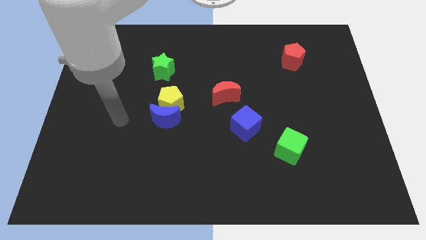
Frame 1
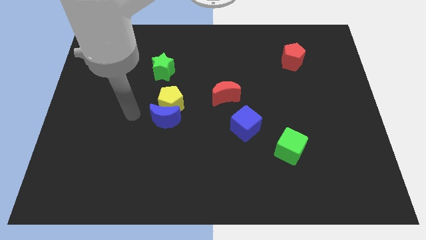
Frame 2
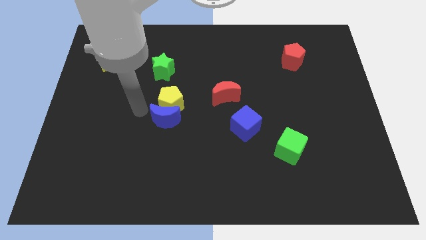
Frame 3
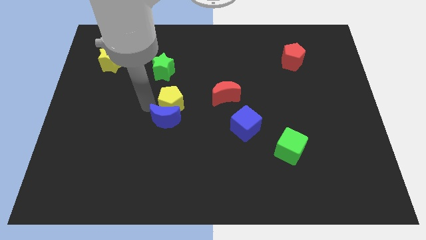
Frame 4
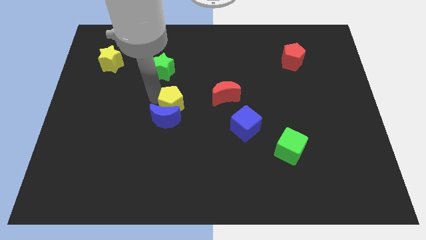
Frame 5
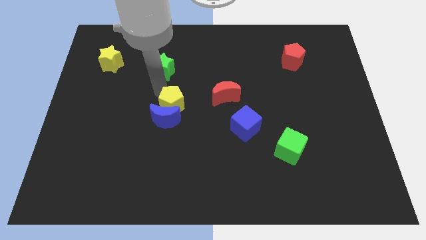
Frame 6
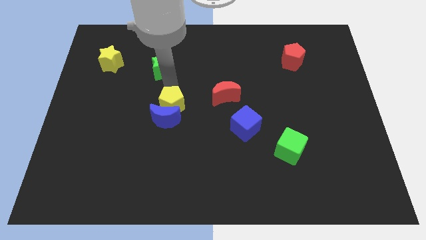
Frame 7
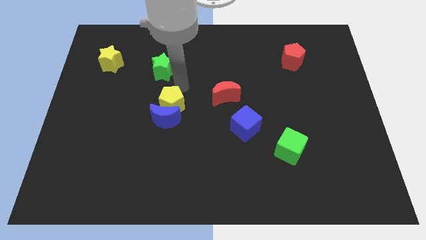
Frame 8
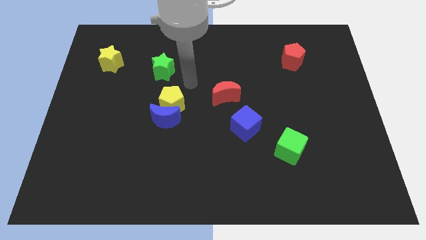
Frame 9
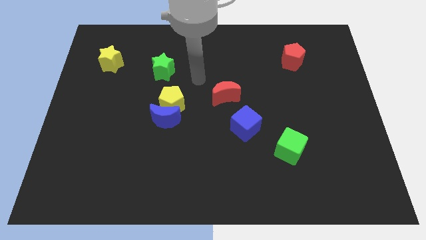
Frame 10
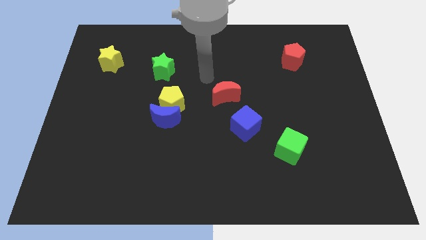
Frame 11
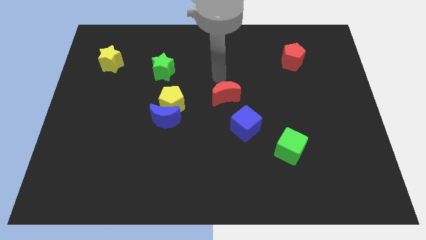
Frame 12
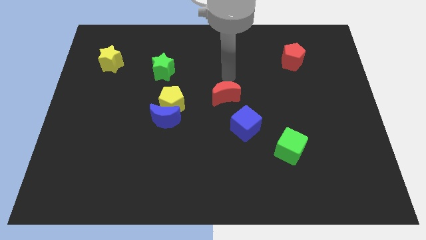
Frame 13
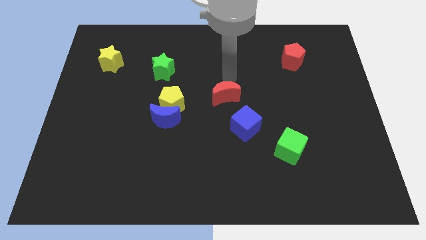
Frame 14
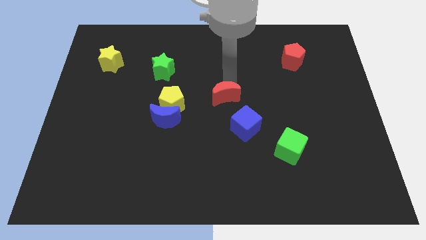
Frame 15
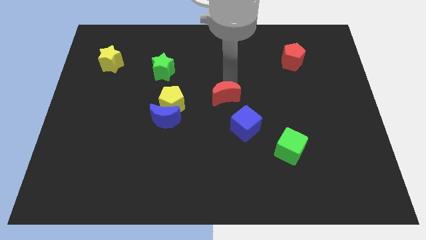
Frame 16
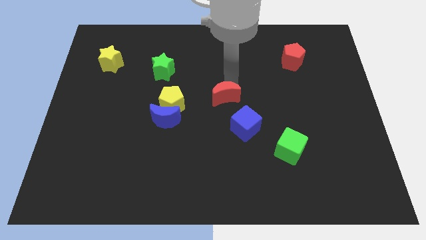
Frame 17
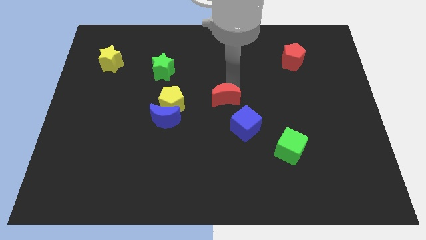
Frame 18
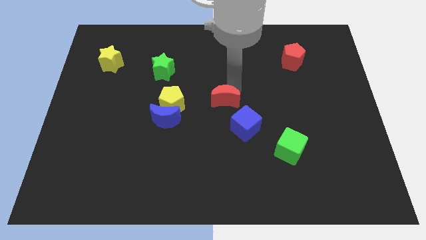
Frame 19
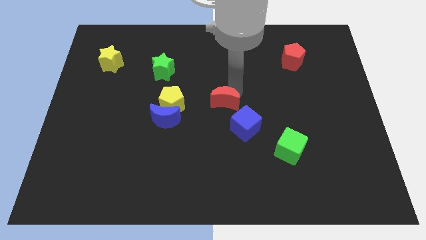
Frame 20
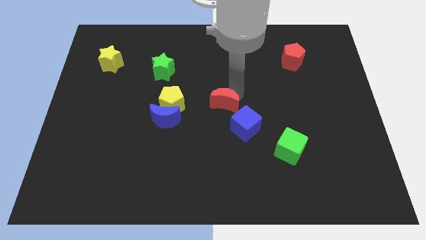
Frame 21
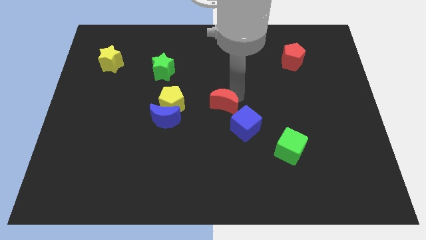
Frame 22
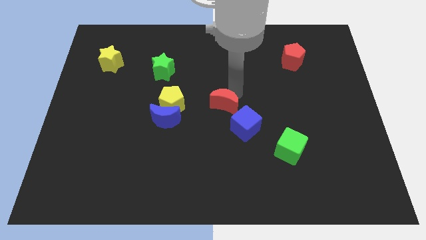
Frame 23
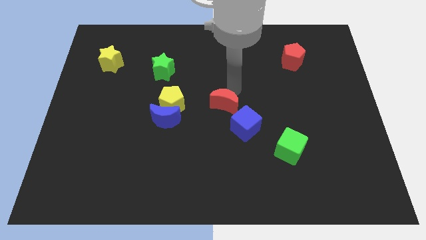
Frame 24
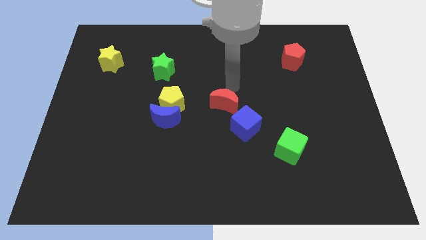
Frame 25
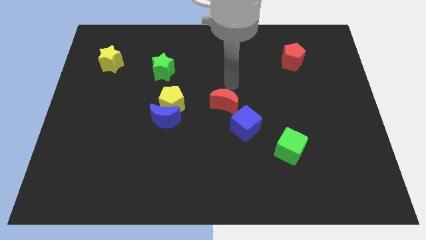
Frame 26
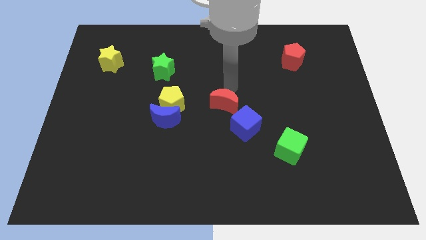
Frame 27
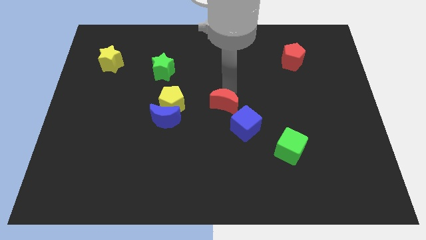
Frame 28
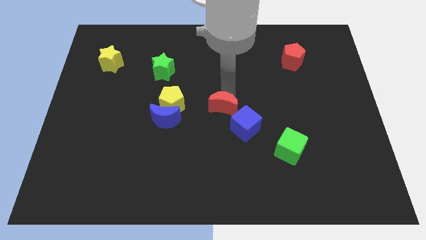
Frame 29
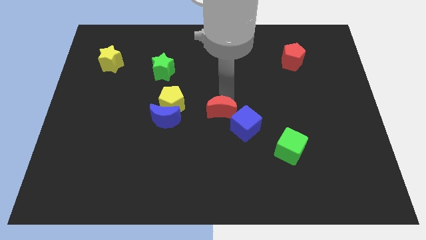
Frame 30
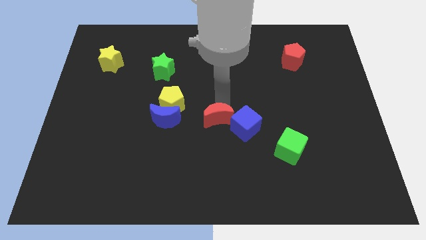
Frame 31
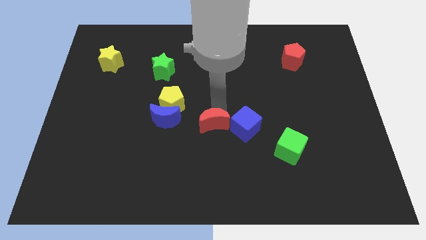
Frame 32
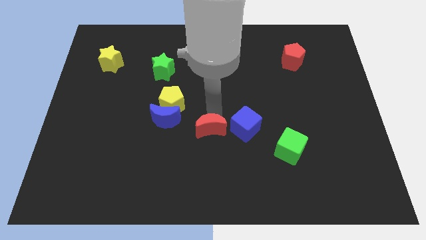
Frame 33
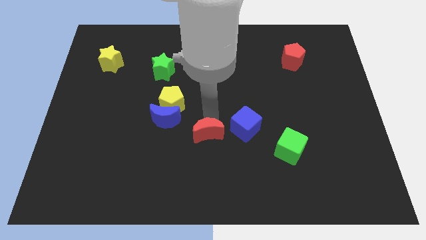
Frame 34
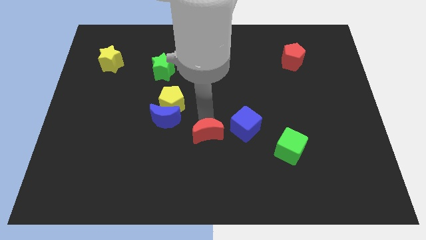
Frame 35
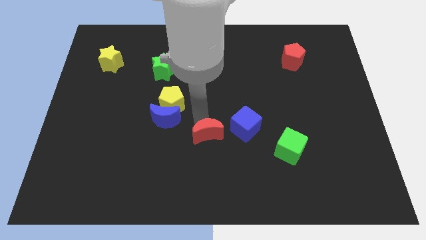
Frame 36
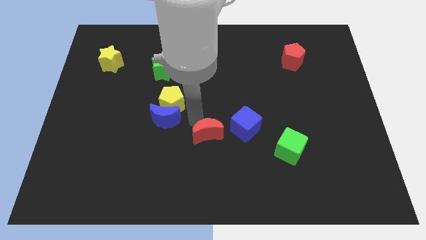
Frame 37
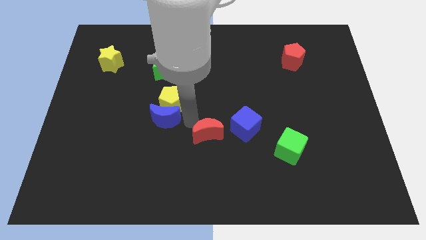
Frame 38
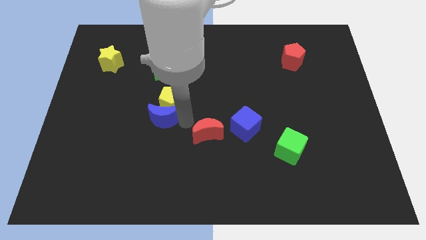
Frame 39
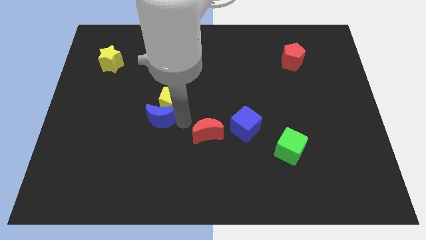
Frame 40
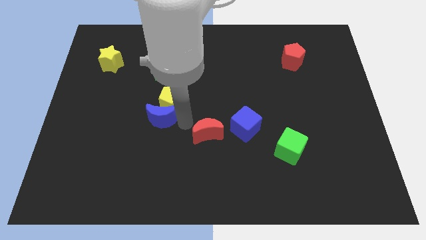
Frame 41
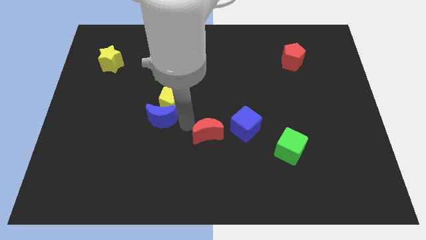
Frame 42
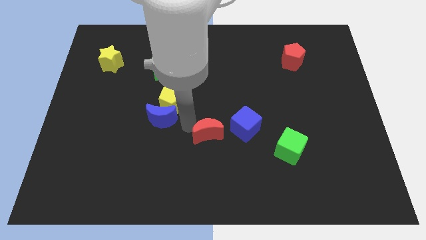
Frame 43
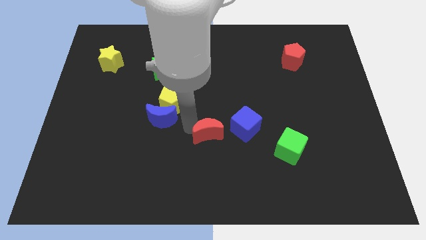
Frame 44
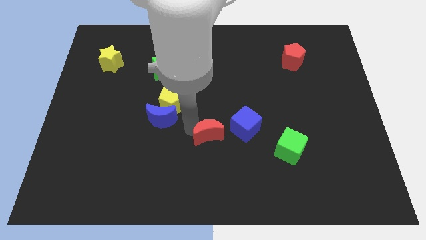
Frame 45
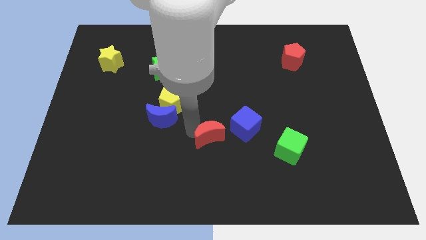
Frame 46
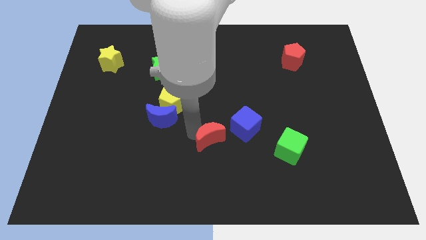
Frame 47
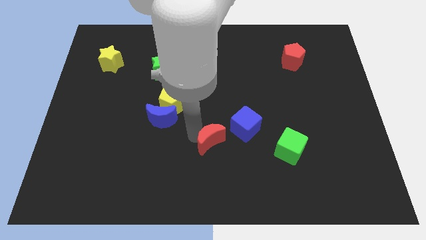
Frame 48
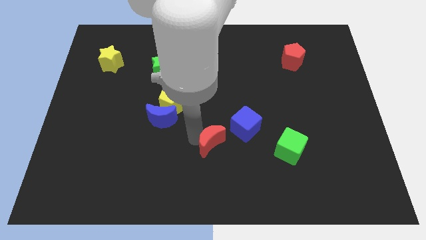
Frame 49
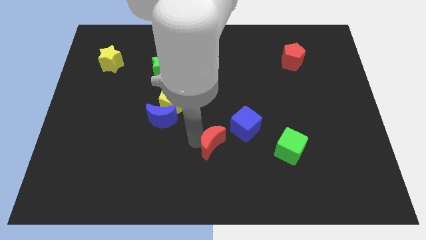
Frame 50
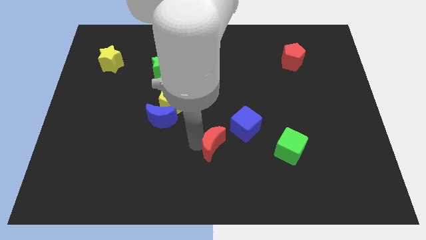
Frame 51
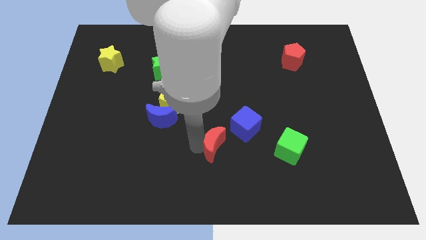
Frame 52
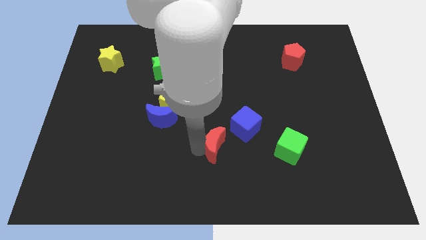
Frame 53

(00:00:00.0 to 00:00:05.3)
slide the red moon just left of the green cube

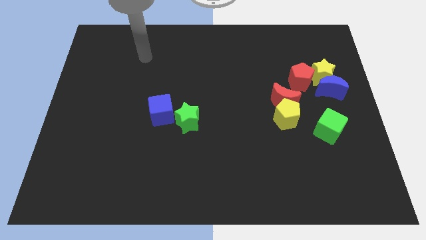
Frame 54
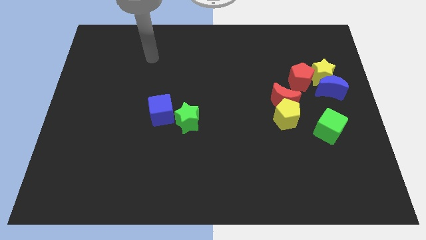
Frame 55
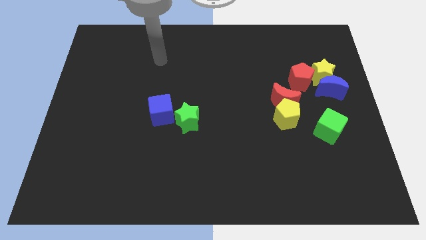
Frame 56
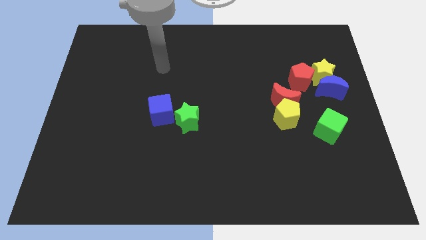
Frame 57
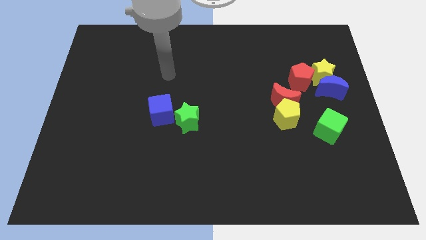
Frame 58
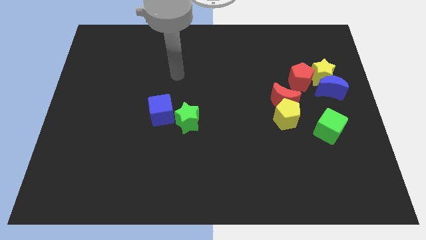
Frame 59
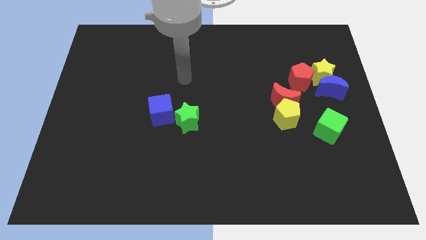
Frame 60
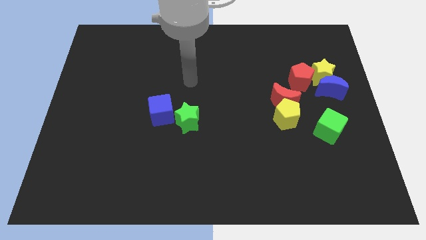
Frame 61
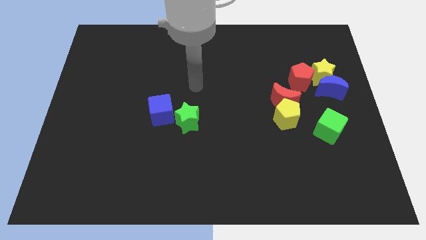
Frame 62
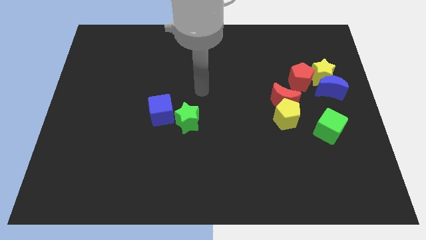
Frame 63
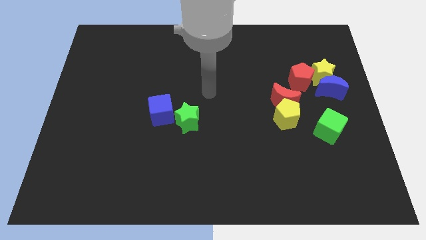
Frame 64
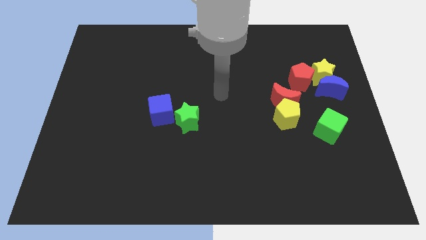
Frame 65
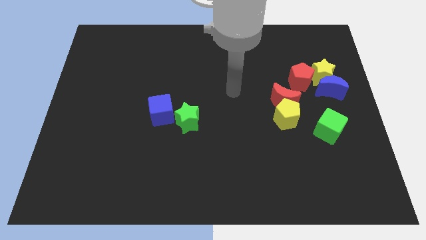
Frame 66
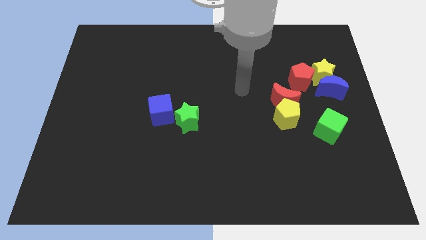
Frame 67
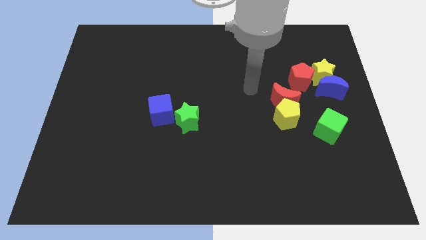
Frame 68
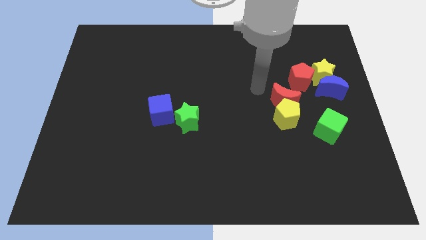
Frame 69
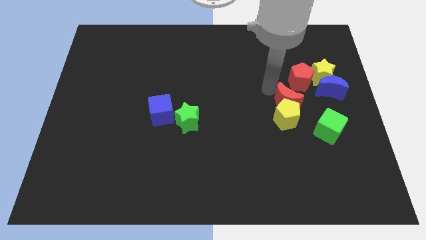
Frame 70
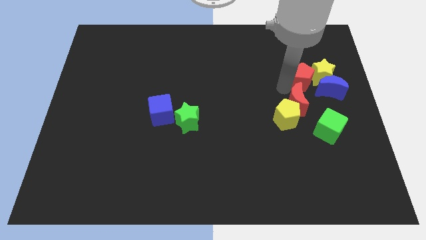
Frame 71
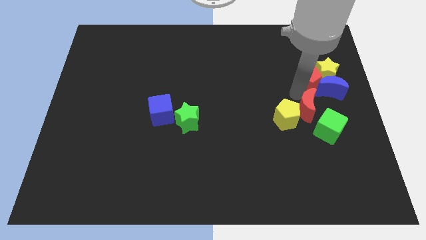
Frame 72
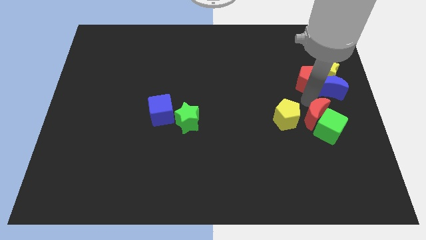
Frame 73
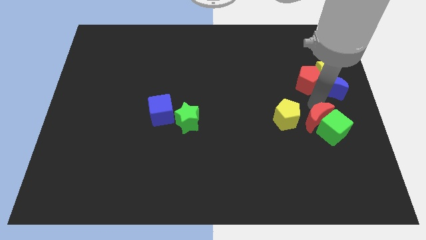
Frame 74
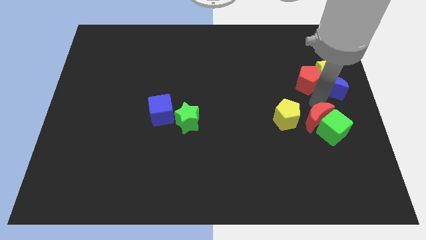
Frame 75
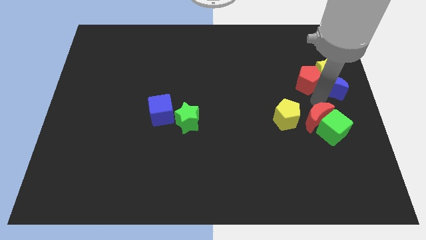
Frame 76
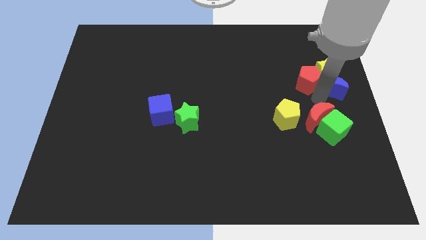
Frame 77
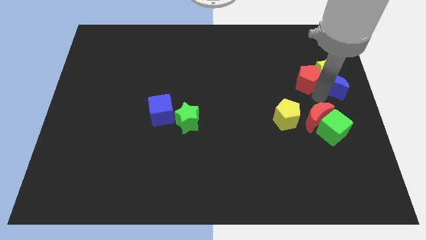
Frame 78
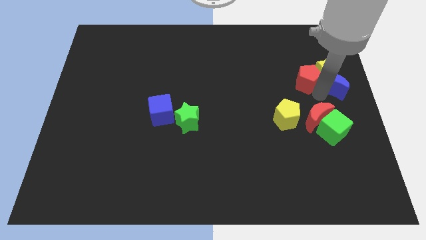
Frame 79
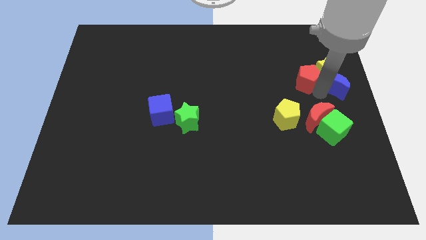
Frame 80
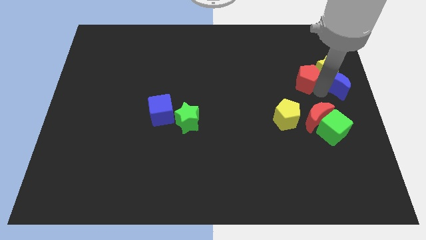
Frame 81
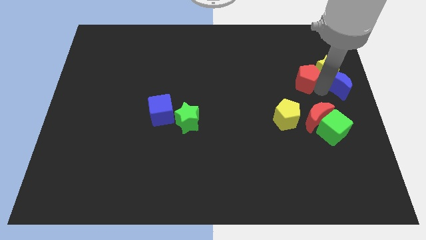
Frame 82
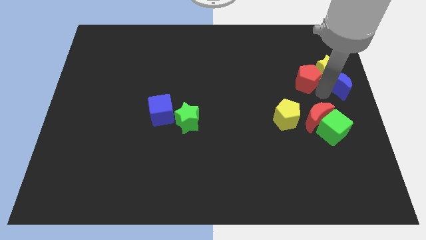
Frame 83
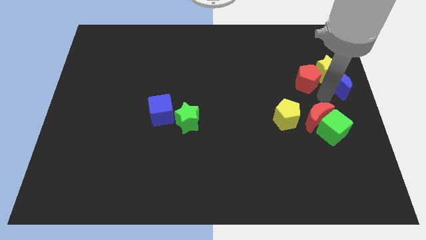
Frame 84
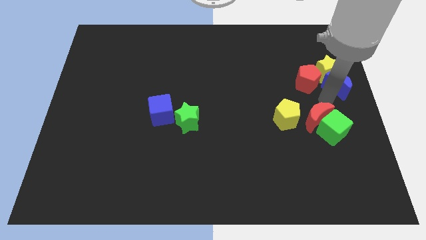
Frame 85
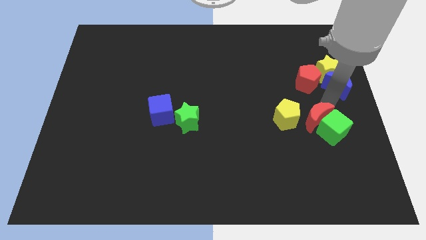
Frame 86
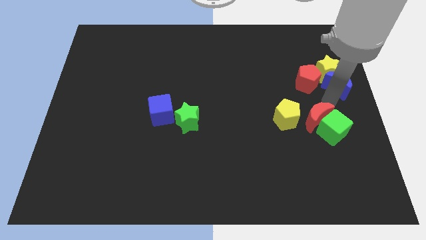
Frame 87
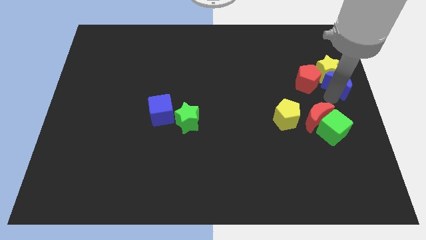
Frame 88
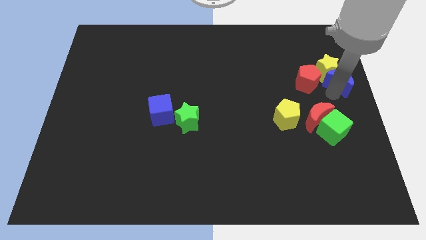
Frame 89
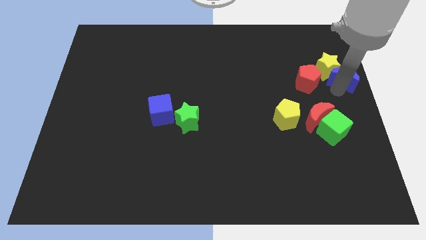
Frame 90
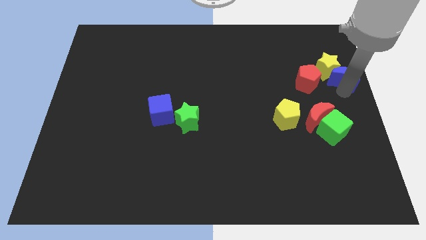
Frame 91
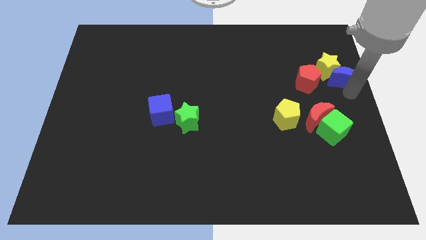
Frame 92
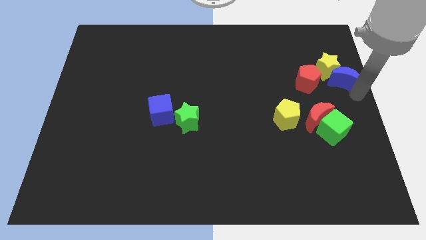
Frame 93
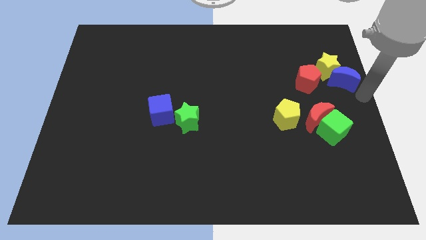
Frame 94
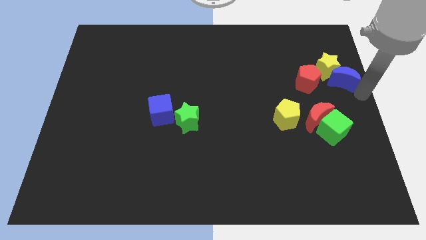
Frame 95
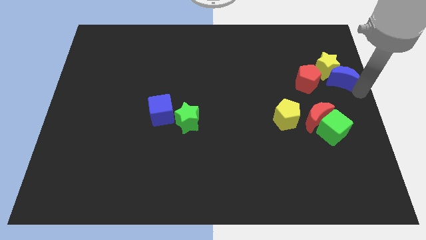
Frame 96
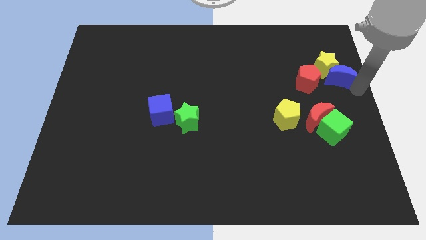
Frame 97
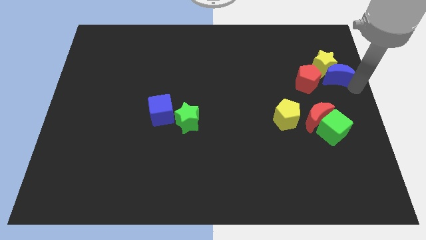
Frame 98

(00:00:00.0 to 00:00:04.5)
slide the blue moon to the top right side of the red pentagon
